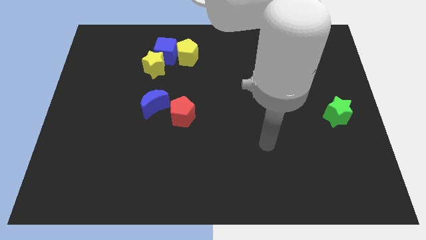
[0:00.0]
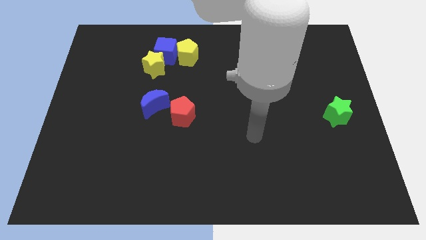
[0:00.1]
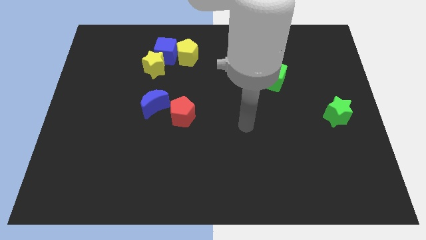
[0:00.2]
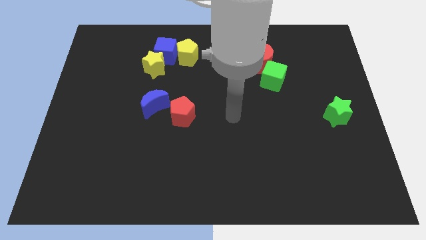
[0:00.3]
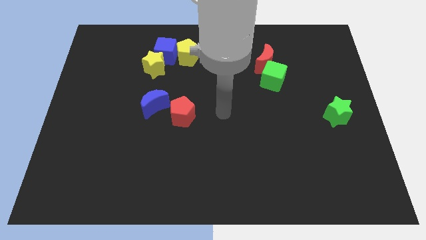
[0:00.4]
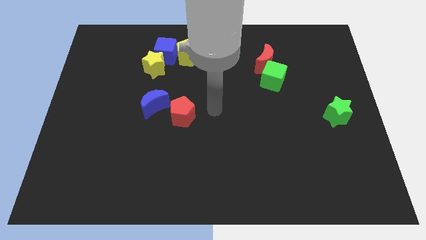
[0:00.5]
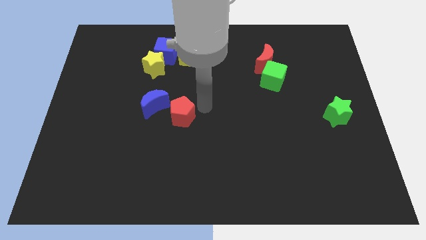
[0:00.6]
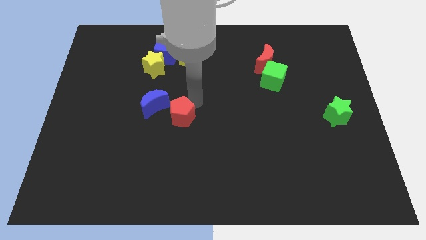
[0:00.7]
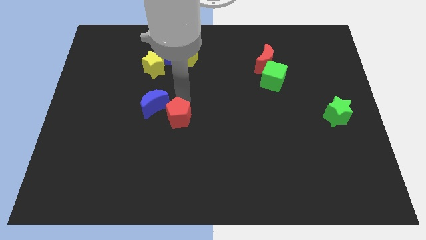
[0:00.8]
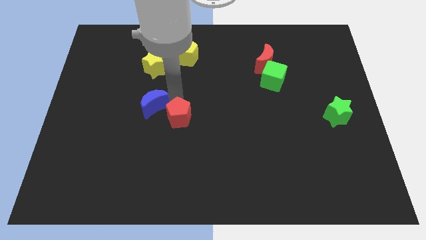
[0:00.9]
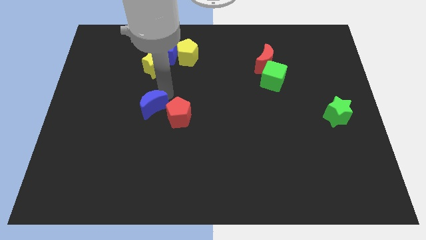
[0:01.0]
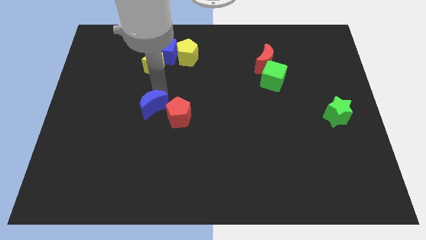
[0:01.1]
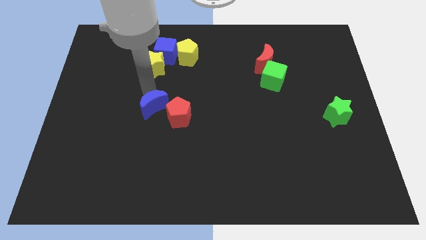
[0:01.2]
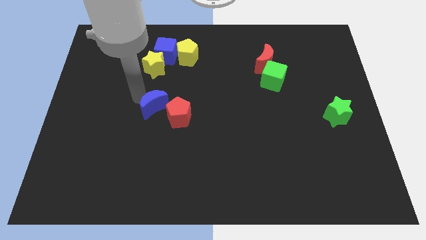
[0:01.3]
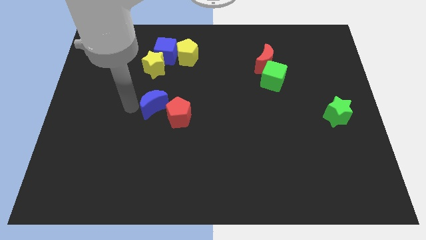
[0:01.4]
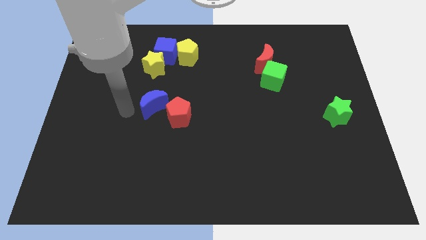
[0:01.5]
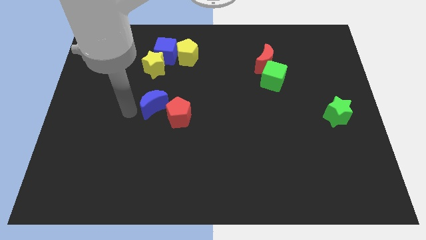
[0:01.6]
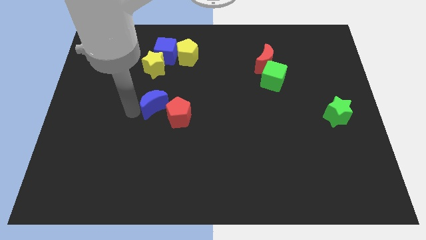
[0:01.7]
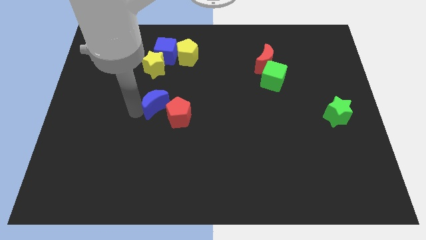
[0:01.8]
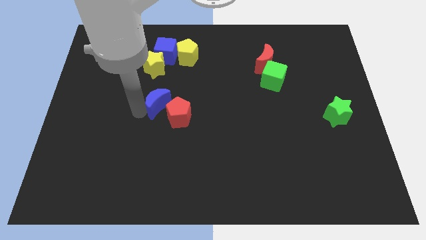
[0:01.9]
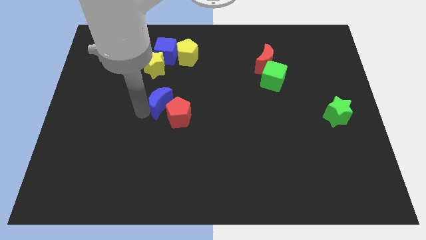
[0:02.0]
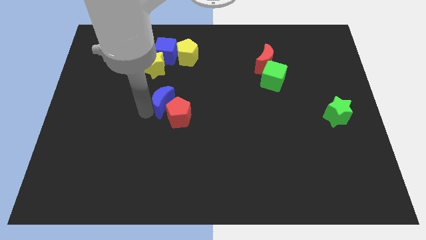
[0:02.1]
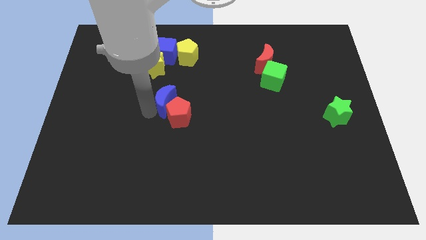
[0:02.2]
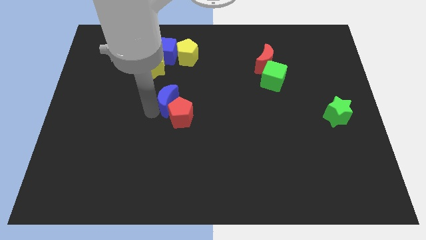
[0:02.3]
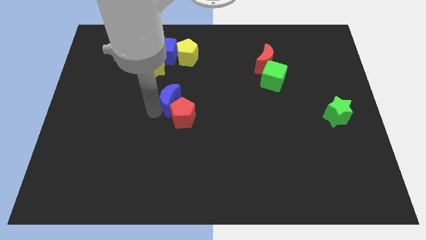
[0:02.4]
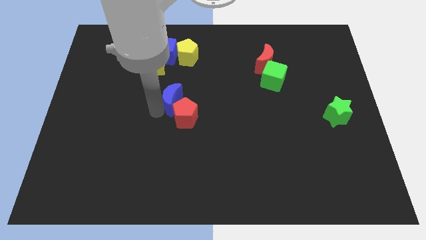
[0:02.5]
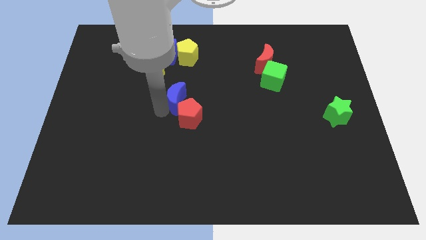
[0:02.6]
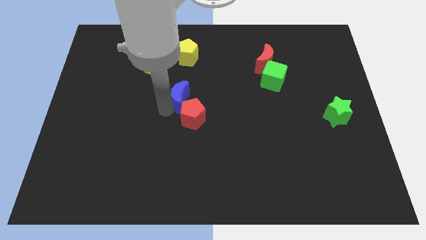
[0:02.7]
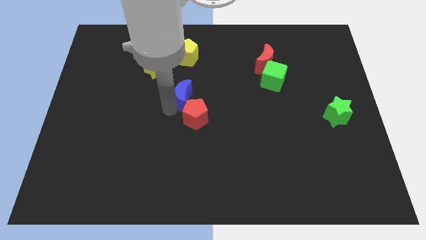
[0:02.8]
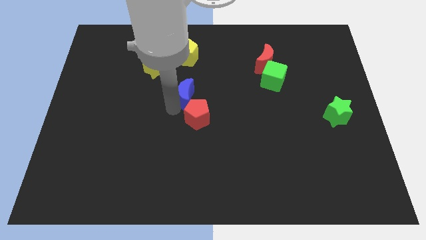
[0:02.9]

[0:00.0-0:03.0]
slide the blue moon a bit to the right

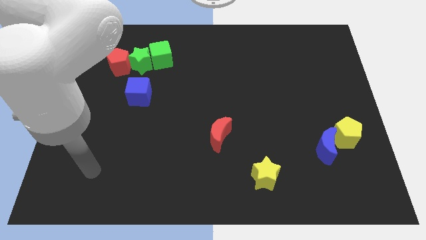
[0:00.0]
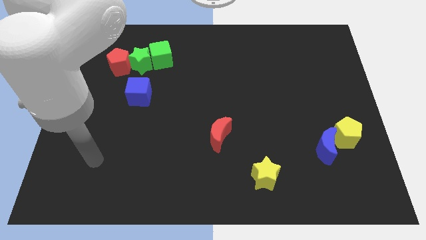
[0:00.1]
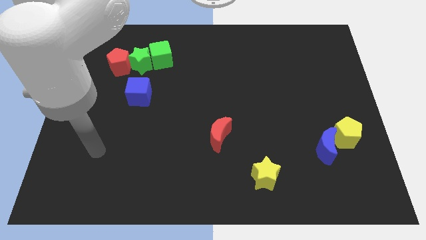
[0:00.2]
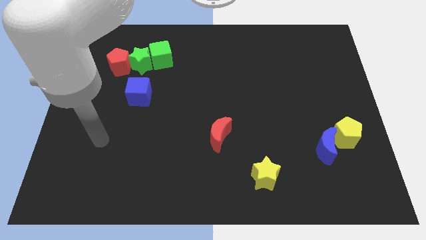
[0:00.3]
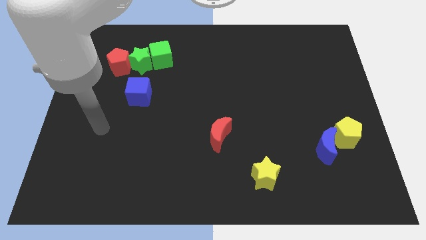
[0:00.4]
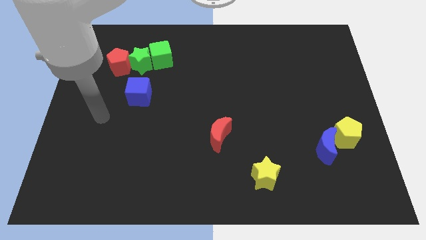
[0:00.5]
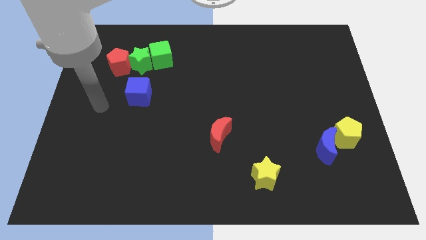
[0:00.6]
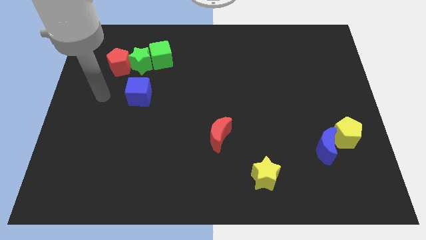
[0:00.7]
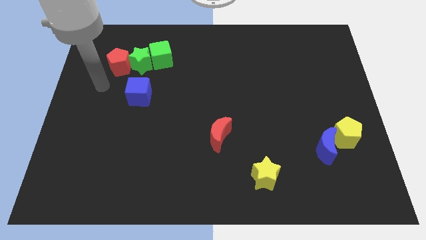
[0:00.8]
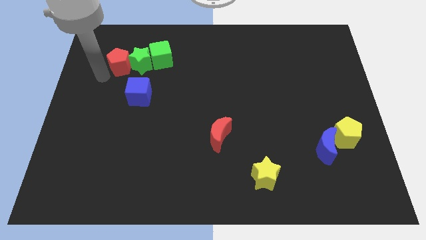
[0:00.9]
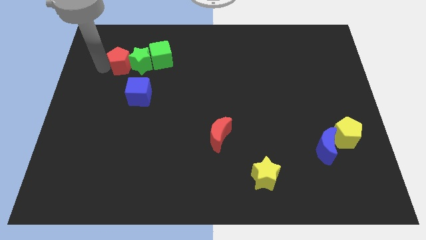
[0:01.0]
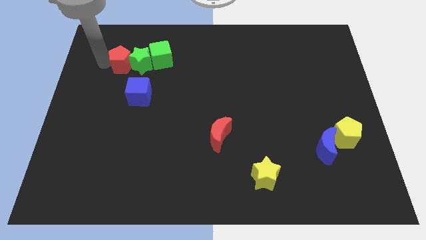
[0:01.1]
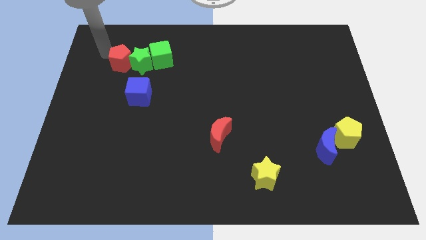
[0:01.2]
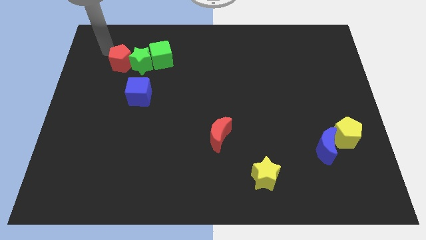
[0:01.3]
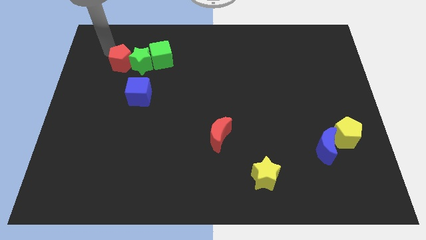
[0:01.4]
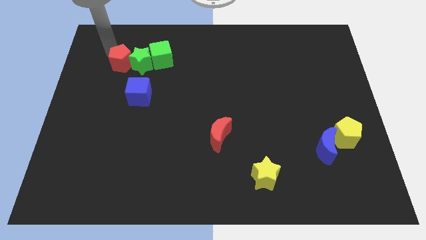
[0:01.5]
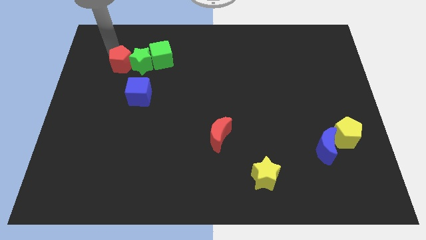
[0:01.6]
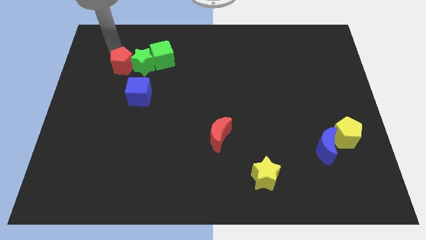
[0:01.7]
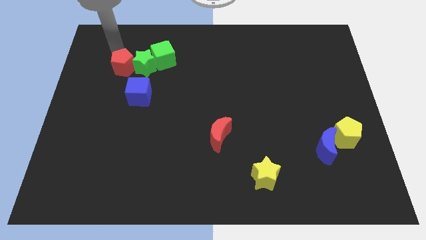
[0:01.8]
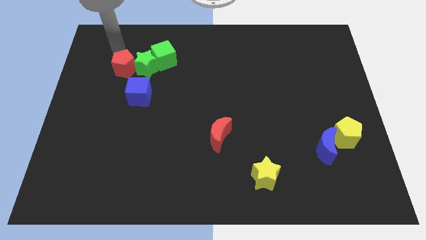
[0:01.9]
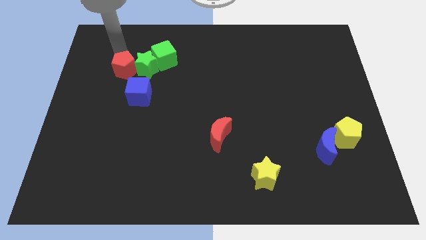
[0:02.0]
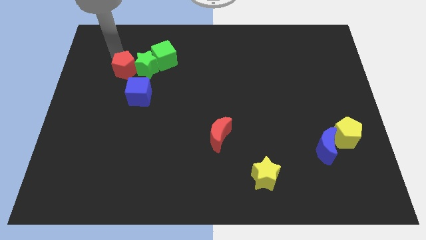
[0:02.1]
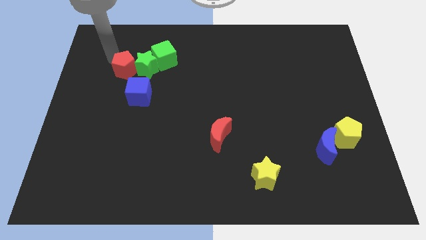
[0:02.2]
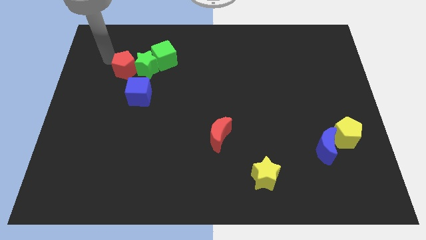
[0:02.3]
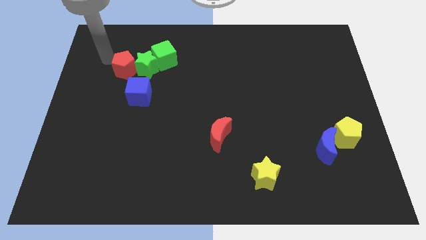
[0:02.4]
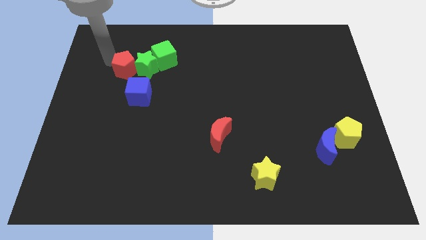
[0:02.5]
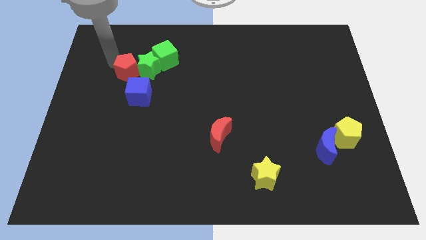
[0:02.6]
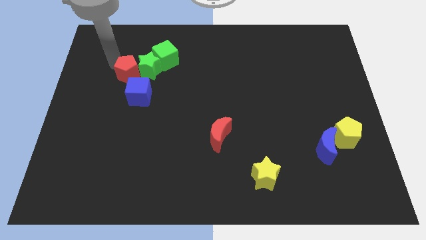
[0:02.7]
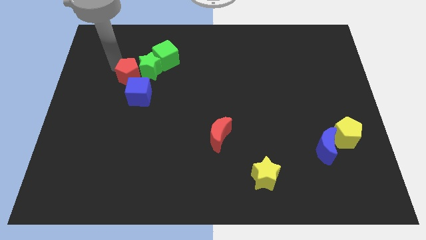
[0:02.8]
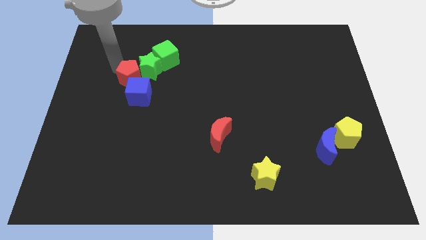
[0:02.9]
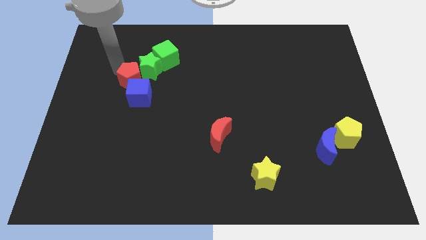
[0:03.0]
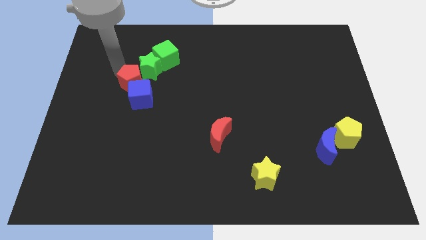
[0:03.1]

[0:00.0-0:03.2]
slide the red pentagon down and right a bit

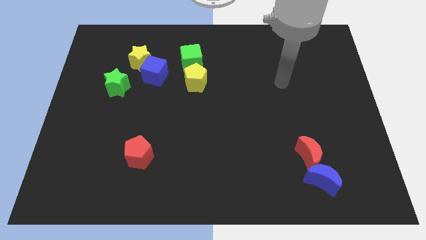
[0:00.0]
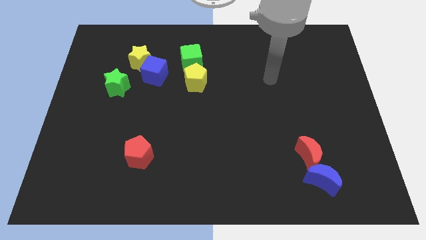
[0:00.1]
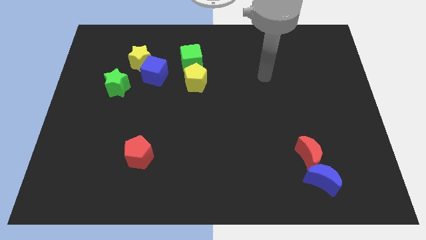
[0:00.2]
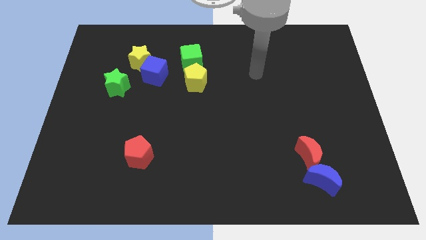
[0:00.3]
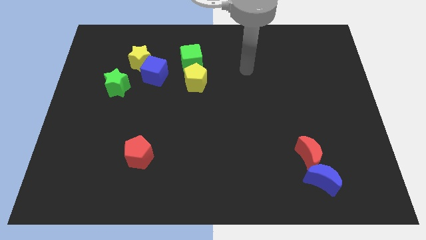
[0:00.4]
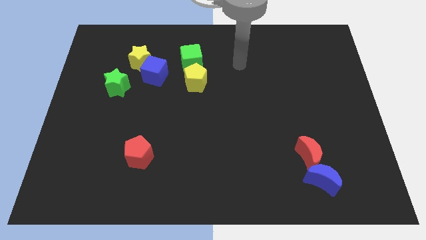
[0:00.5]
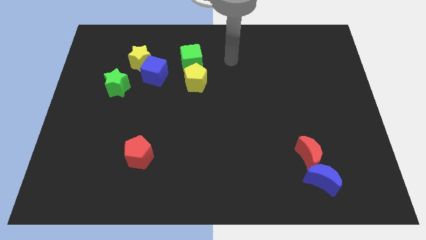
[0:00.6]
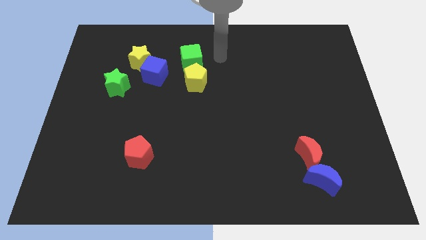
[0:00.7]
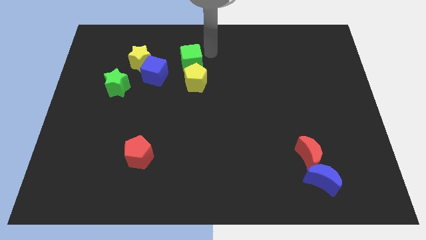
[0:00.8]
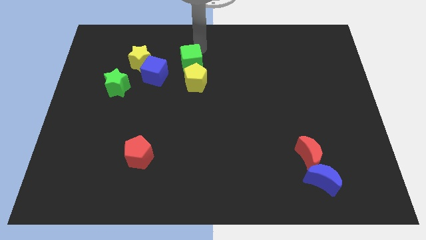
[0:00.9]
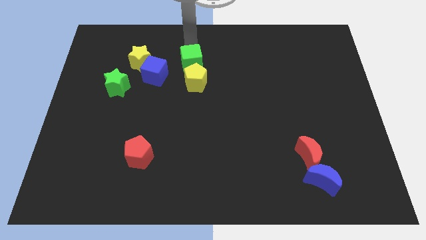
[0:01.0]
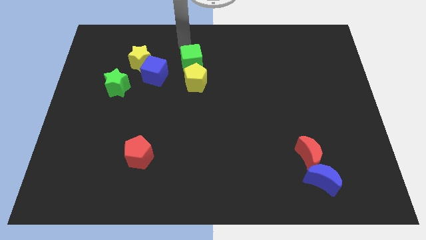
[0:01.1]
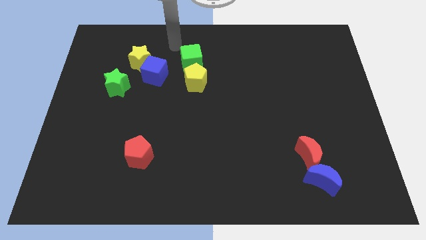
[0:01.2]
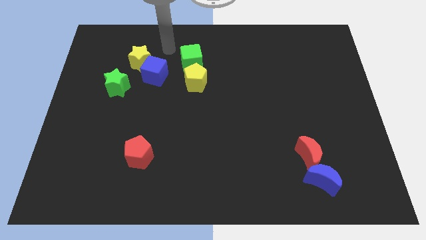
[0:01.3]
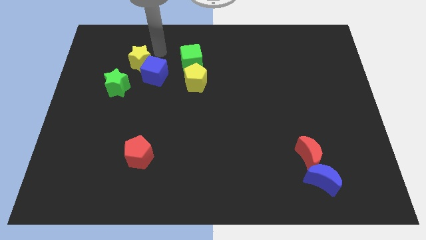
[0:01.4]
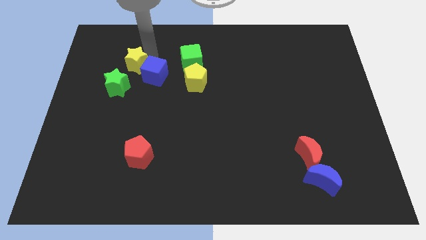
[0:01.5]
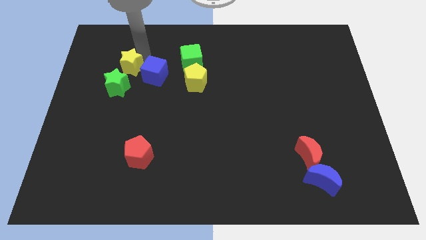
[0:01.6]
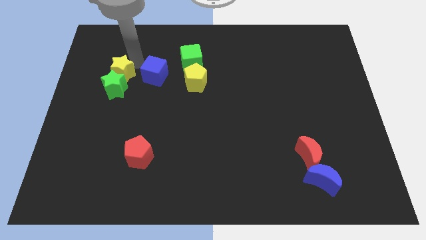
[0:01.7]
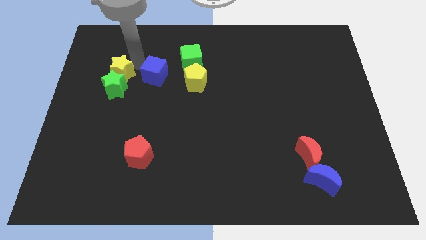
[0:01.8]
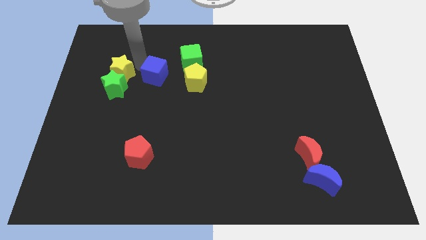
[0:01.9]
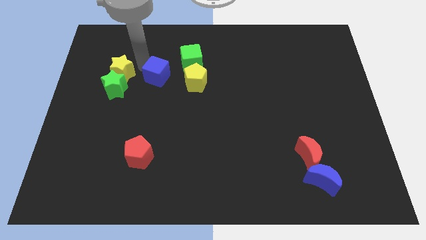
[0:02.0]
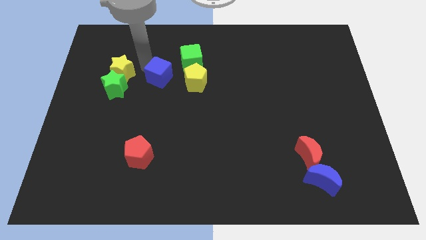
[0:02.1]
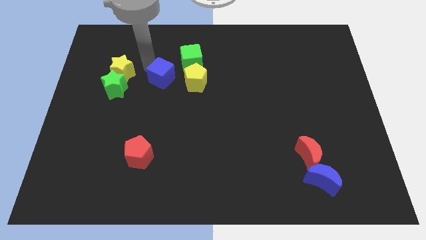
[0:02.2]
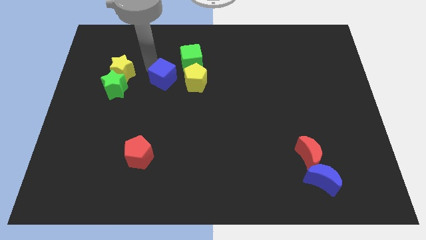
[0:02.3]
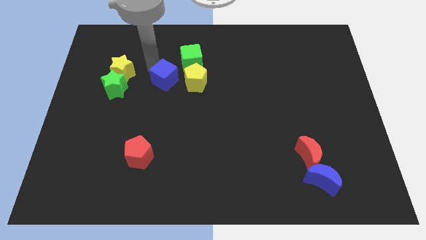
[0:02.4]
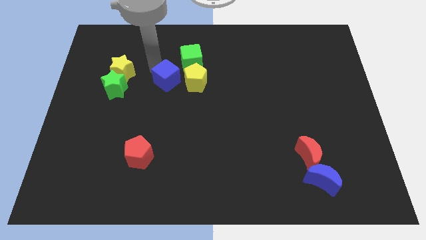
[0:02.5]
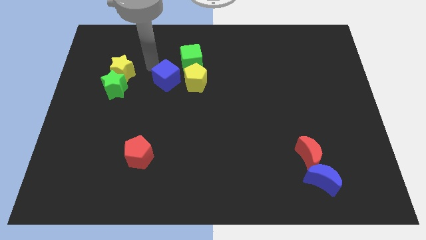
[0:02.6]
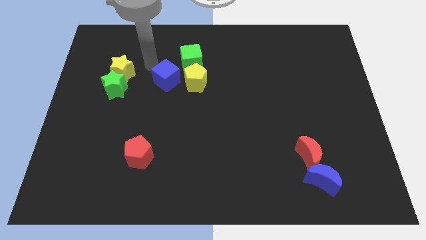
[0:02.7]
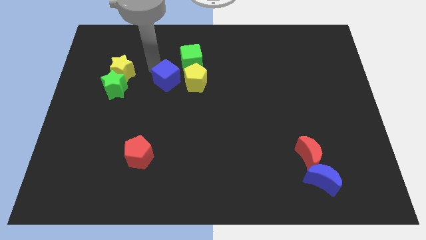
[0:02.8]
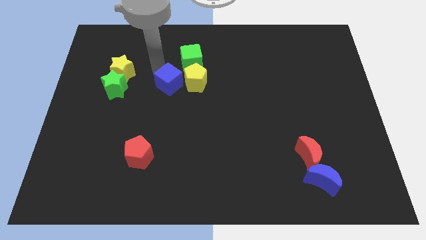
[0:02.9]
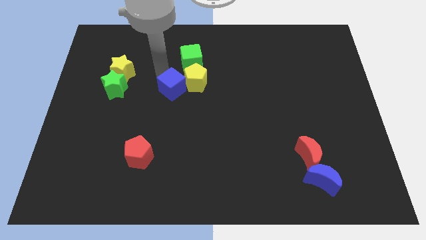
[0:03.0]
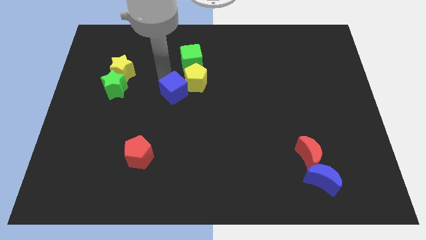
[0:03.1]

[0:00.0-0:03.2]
move the blue cube down and then to the right a little bit
